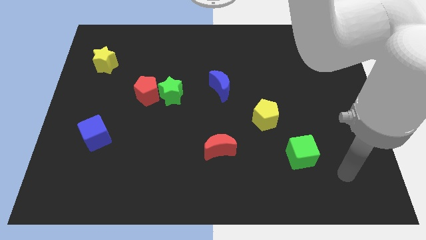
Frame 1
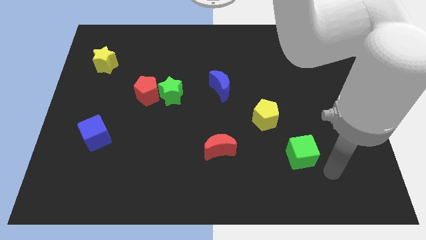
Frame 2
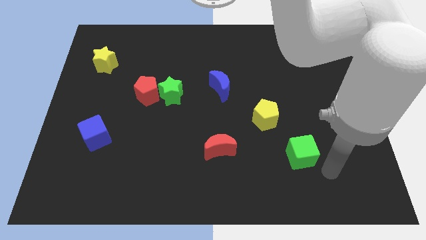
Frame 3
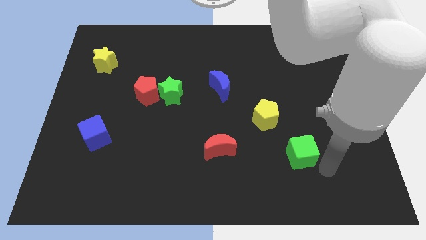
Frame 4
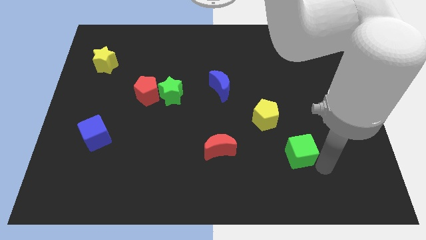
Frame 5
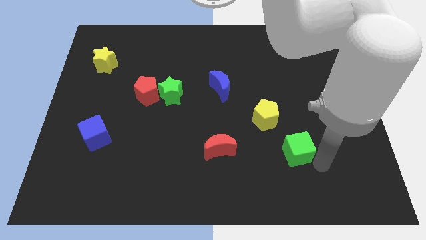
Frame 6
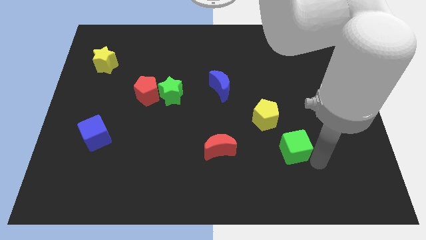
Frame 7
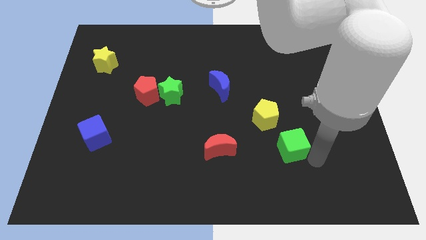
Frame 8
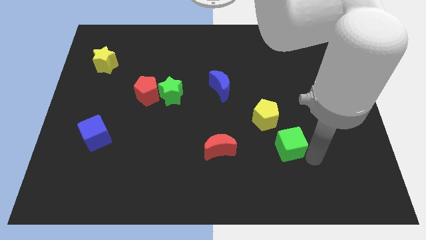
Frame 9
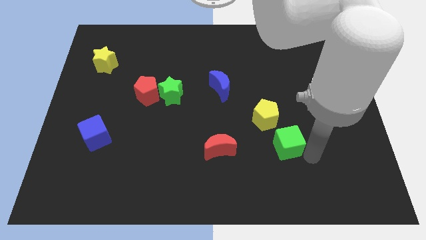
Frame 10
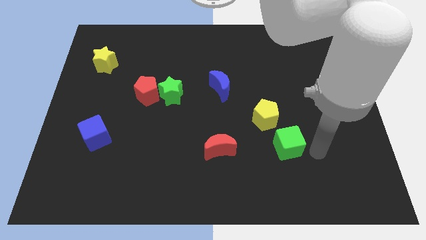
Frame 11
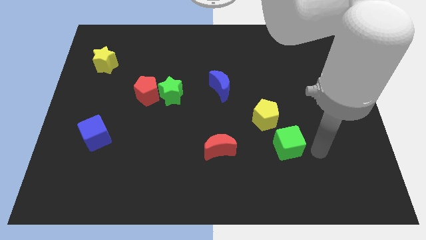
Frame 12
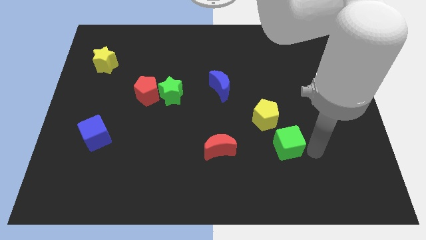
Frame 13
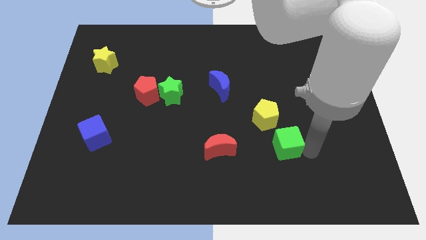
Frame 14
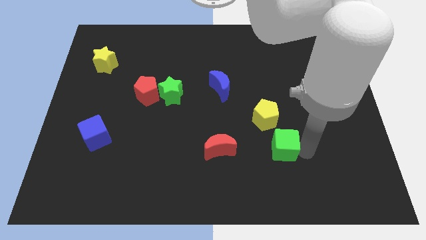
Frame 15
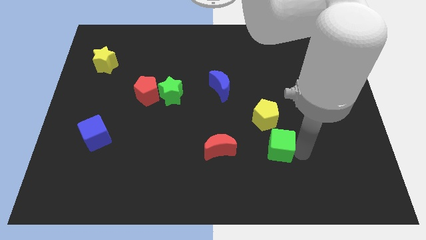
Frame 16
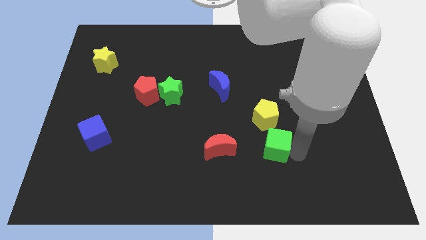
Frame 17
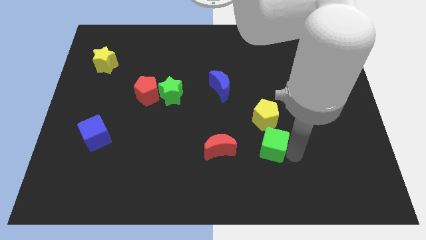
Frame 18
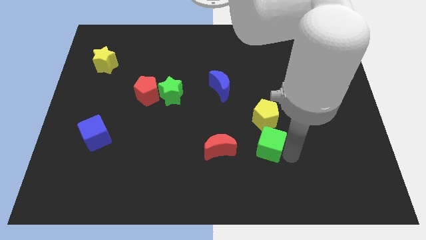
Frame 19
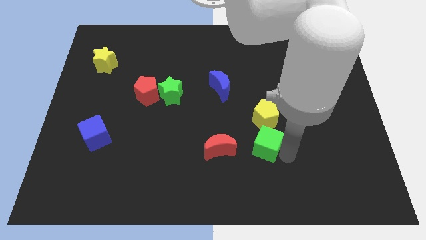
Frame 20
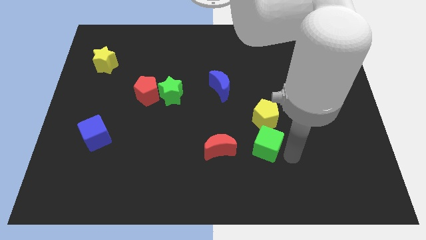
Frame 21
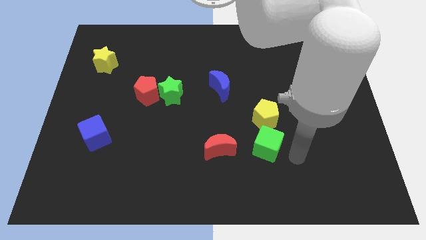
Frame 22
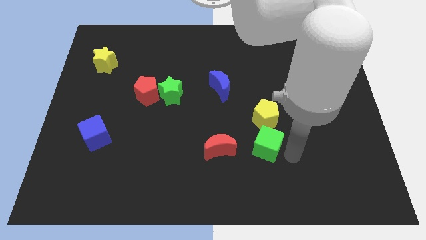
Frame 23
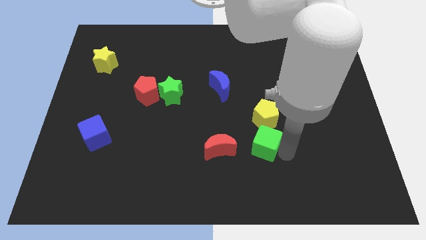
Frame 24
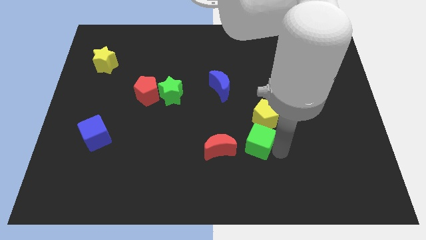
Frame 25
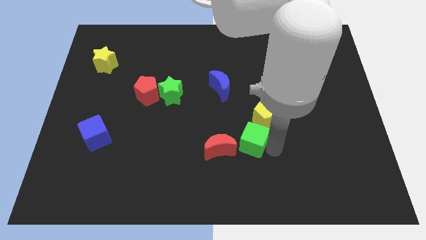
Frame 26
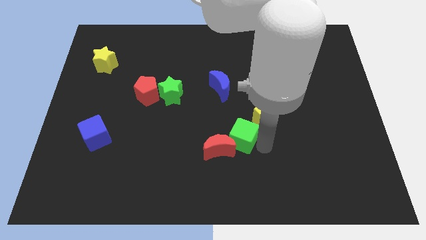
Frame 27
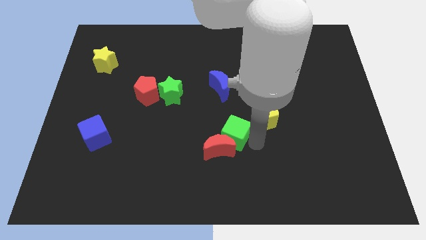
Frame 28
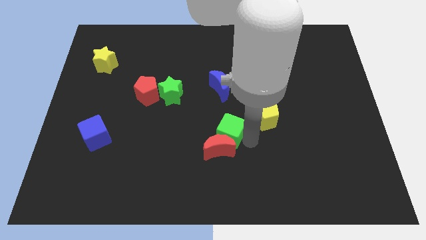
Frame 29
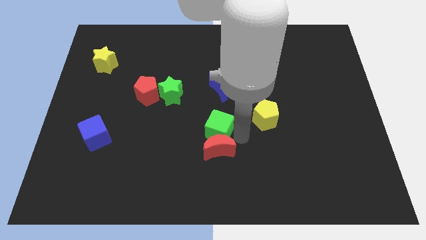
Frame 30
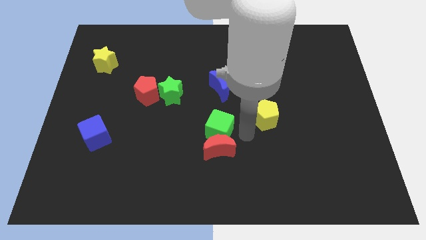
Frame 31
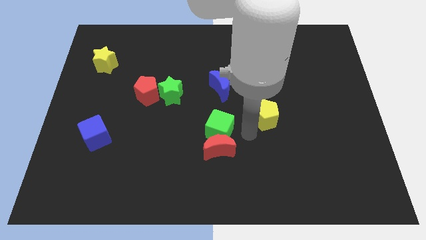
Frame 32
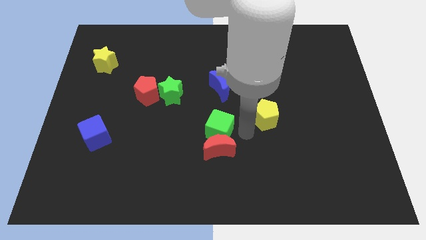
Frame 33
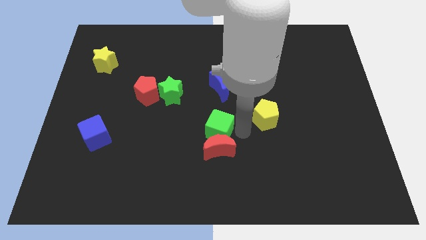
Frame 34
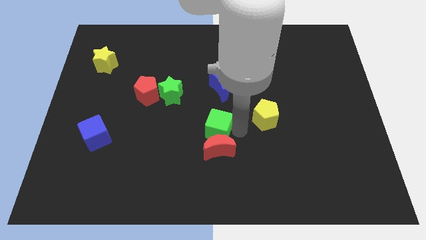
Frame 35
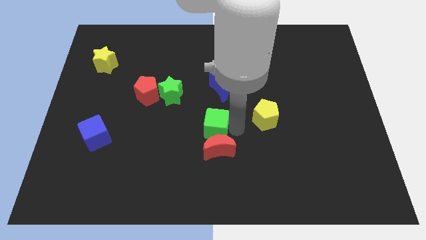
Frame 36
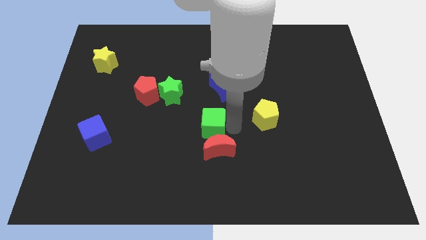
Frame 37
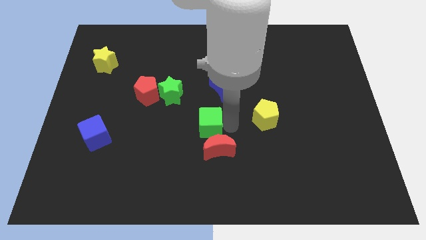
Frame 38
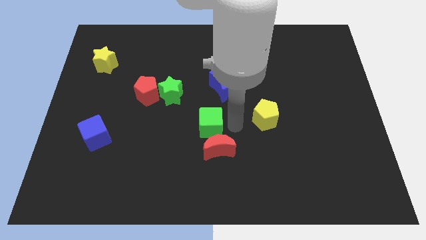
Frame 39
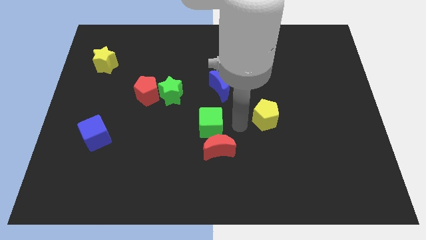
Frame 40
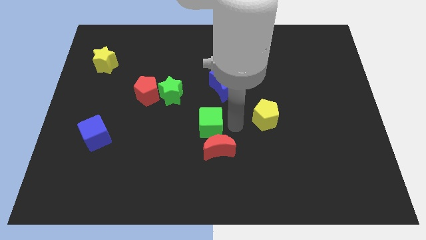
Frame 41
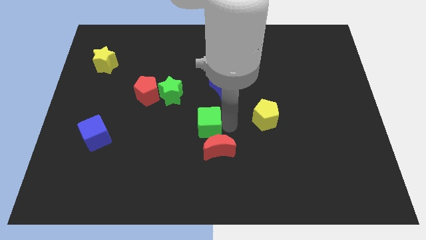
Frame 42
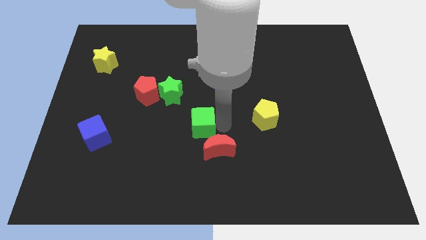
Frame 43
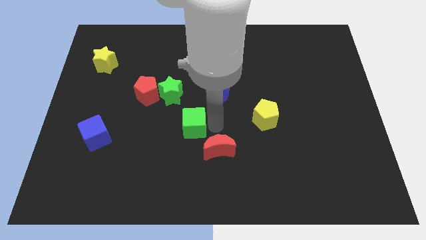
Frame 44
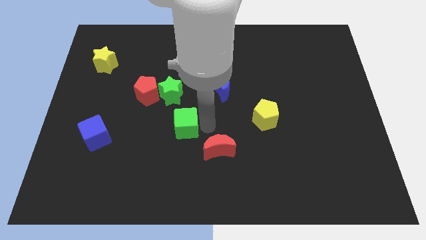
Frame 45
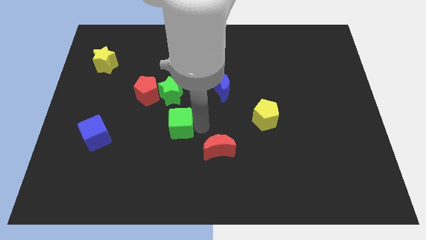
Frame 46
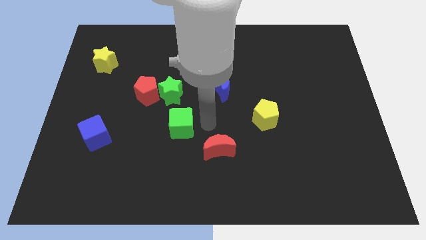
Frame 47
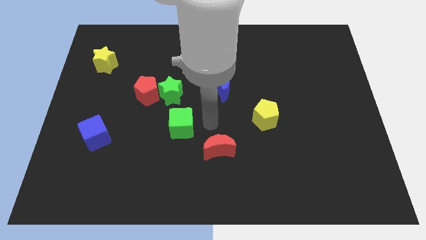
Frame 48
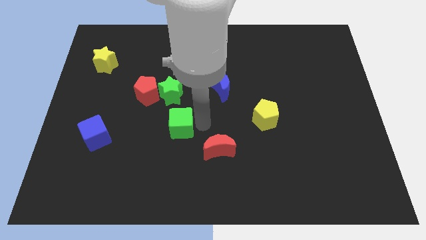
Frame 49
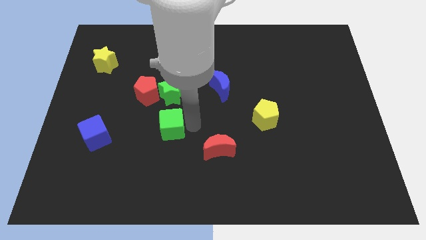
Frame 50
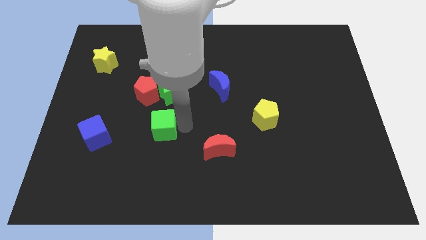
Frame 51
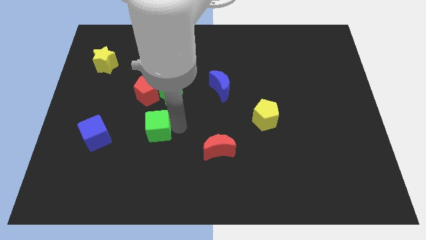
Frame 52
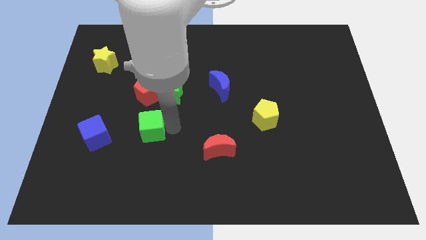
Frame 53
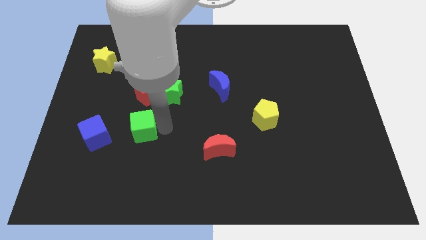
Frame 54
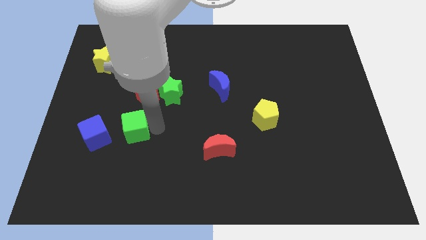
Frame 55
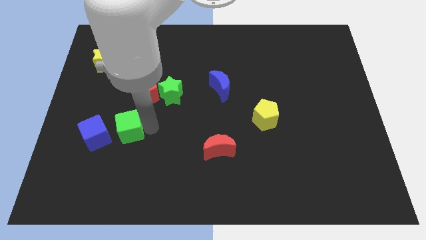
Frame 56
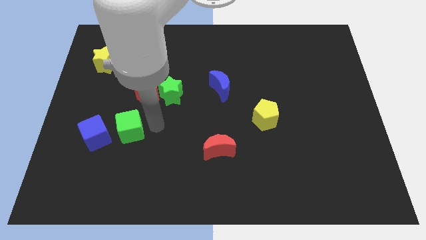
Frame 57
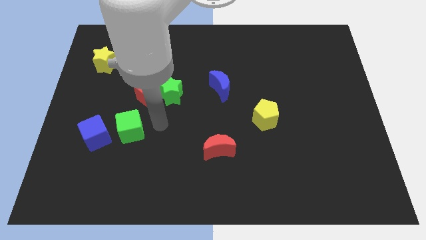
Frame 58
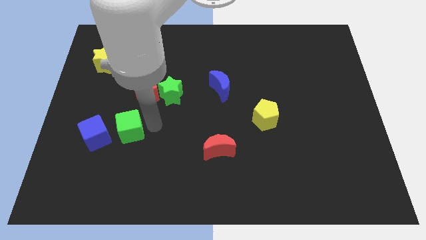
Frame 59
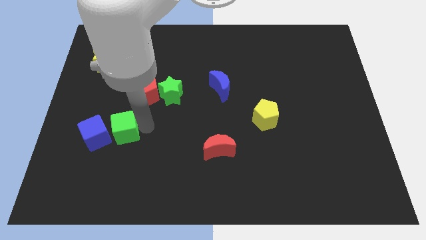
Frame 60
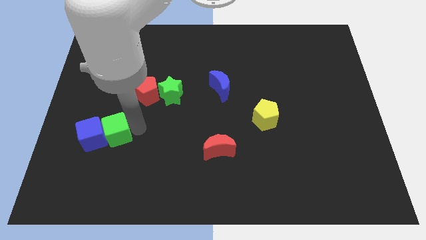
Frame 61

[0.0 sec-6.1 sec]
push the green cube to the blue cube
